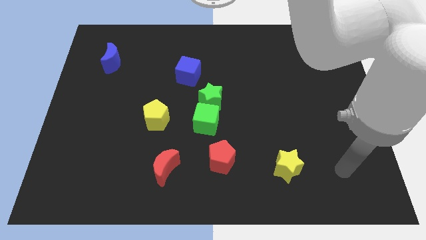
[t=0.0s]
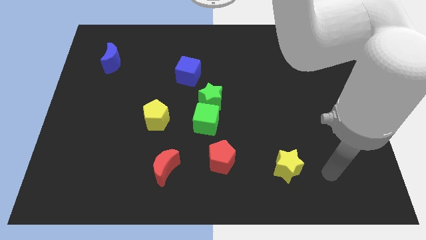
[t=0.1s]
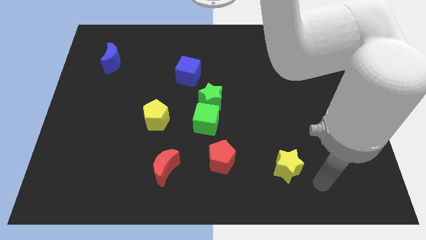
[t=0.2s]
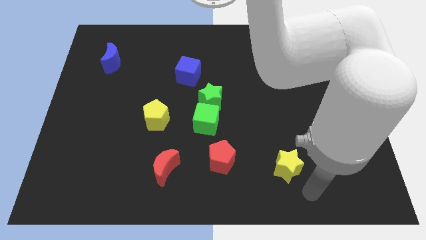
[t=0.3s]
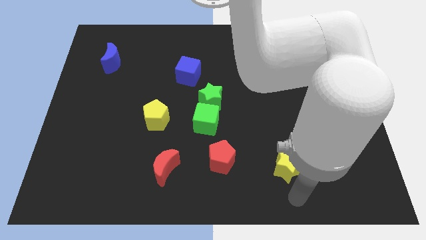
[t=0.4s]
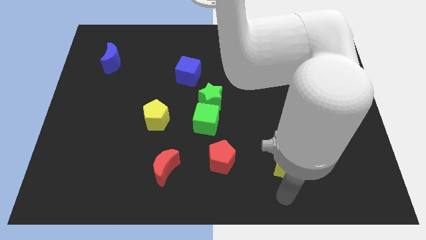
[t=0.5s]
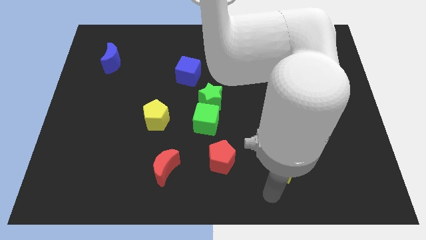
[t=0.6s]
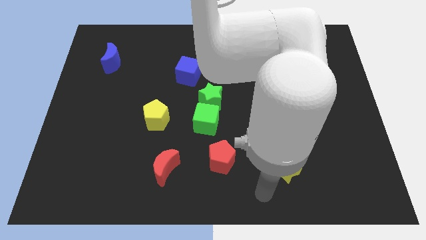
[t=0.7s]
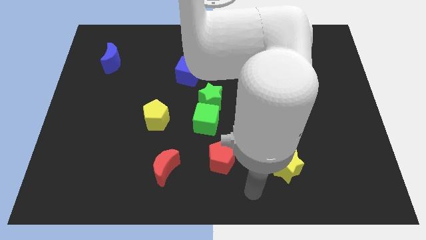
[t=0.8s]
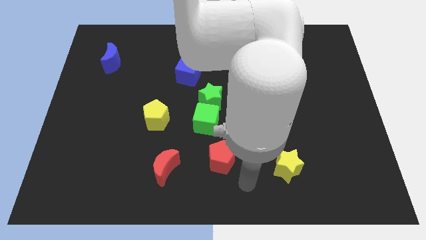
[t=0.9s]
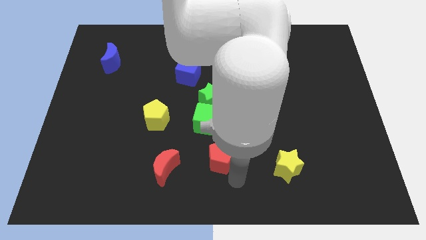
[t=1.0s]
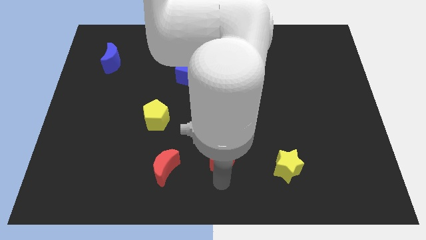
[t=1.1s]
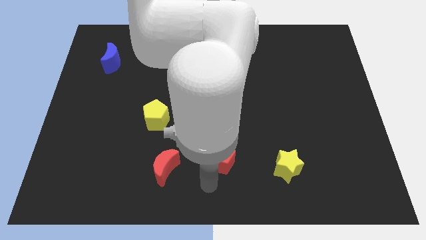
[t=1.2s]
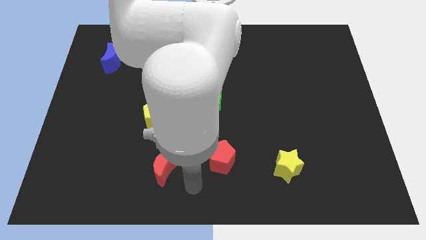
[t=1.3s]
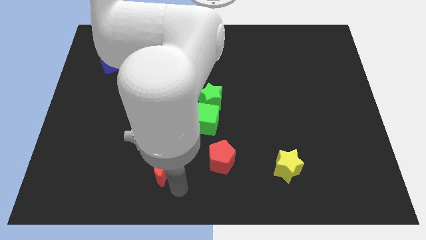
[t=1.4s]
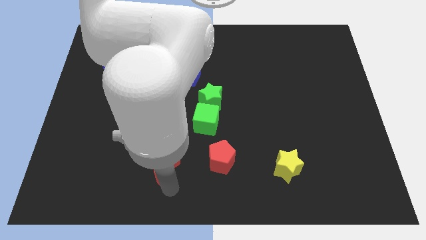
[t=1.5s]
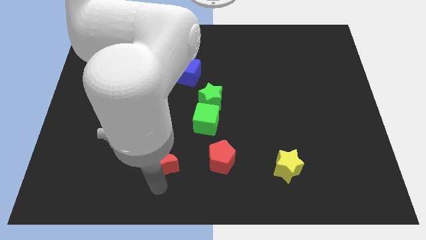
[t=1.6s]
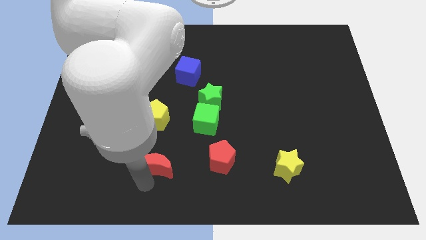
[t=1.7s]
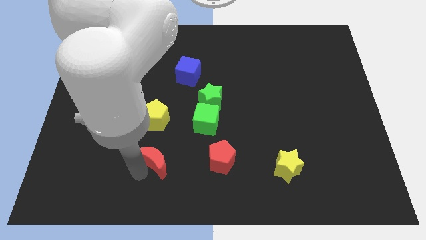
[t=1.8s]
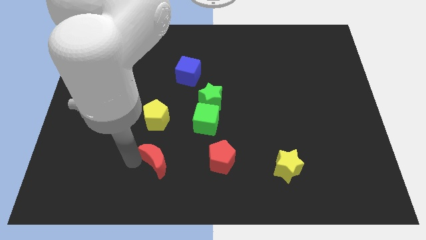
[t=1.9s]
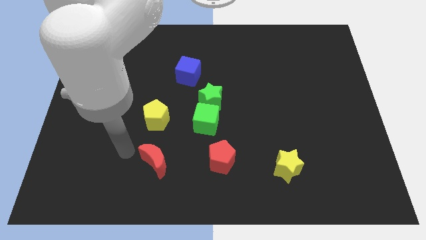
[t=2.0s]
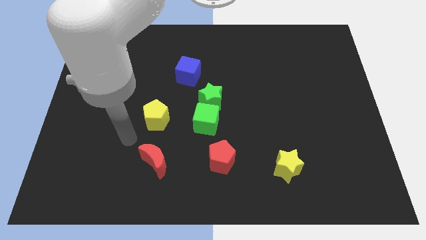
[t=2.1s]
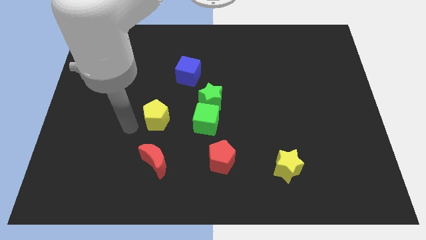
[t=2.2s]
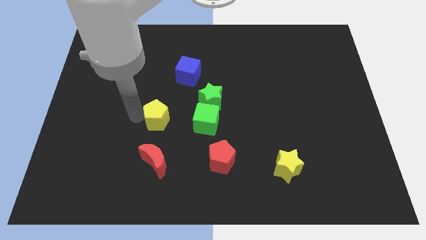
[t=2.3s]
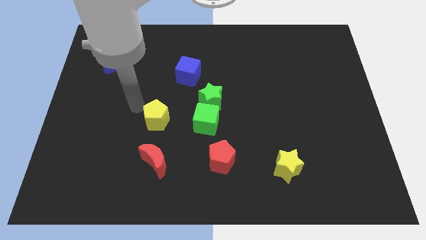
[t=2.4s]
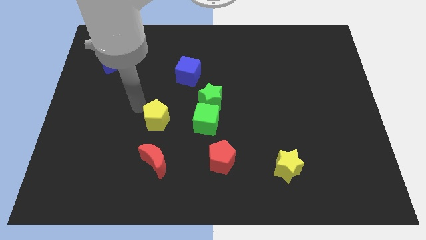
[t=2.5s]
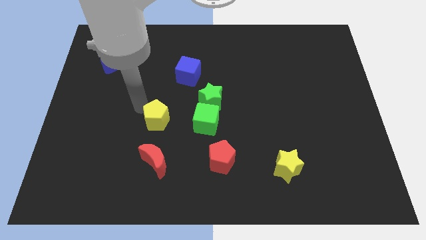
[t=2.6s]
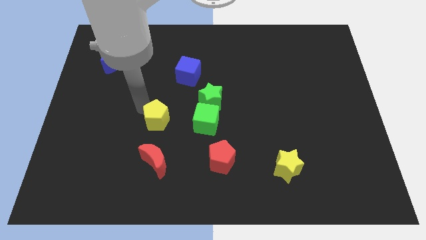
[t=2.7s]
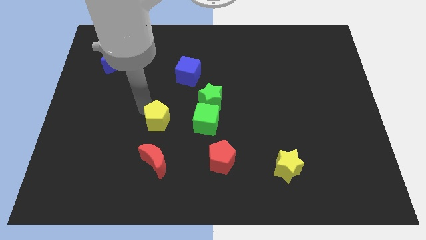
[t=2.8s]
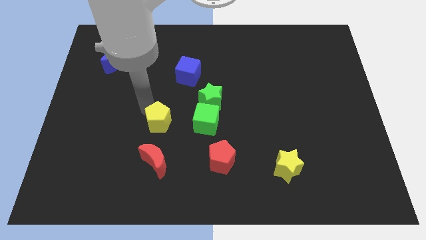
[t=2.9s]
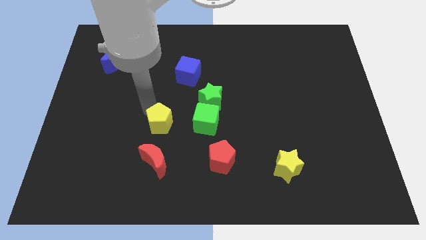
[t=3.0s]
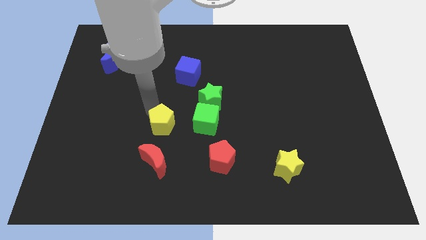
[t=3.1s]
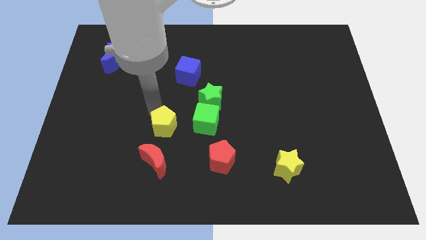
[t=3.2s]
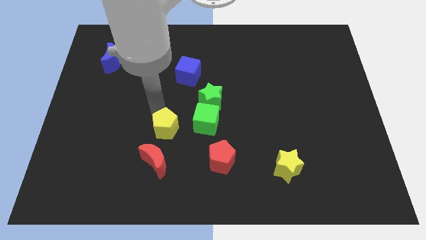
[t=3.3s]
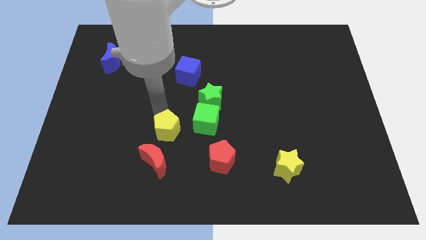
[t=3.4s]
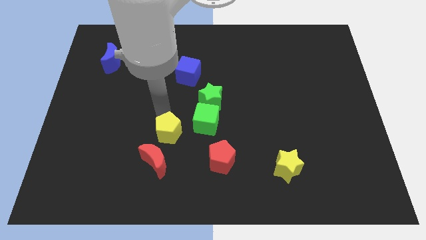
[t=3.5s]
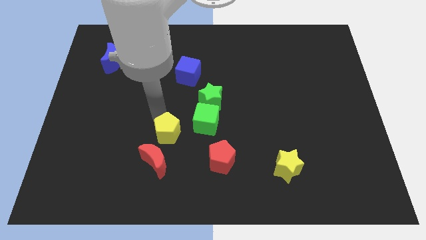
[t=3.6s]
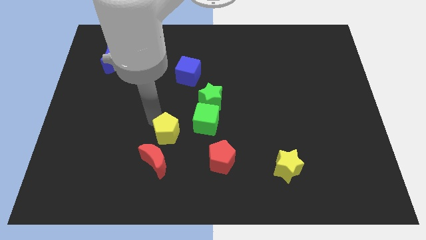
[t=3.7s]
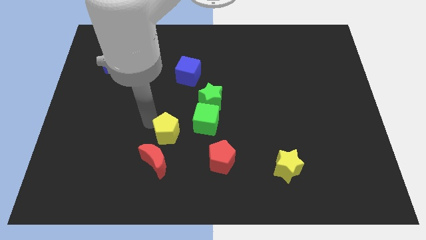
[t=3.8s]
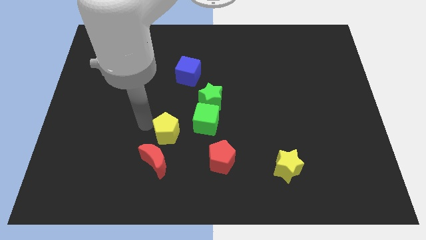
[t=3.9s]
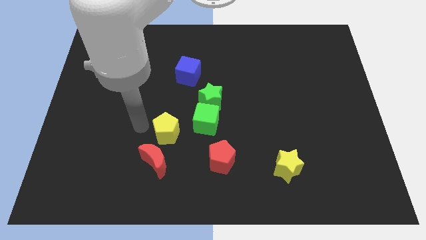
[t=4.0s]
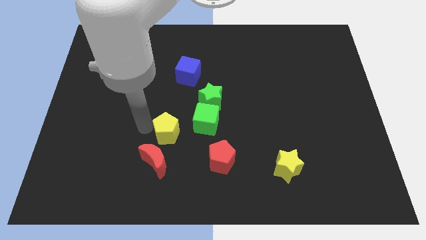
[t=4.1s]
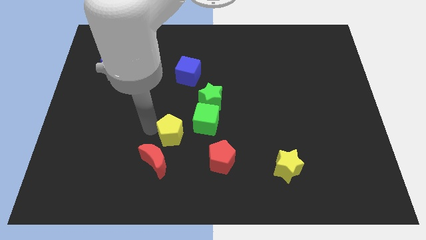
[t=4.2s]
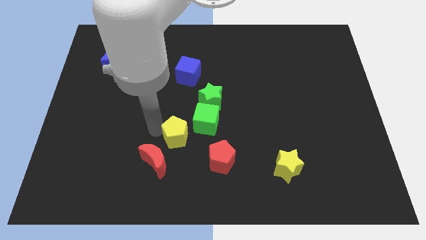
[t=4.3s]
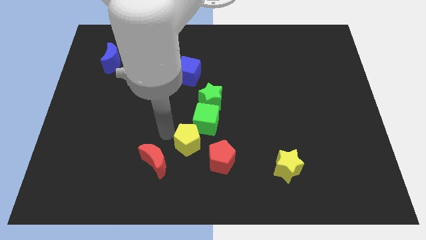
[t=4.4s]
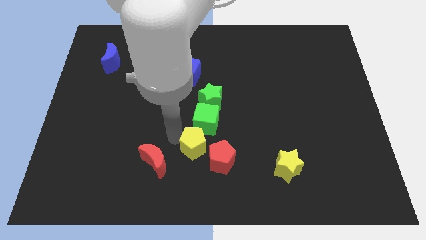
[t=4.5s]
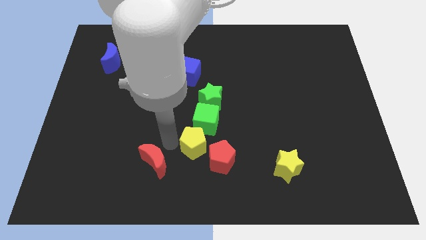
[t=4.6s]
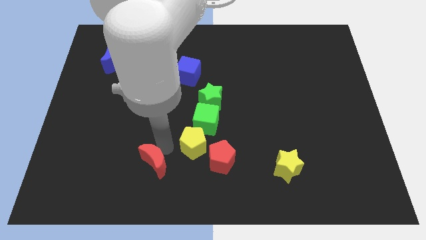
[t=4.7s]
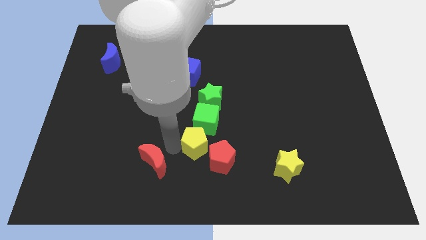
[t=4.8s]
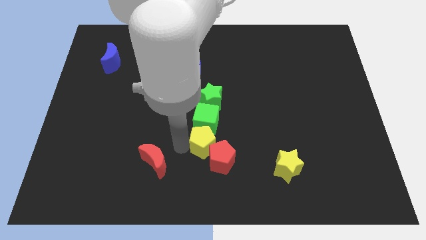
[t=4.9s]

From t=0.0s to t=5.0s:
put the yellow pentagon to the bottom right of the green cube
